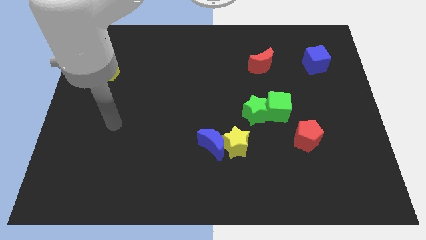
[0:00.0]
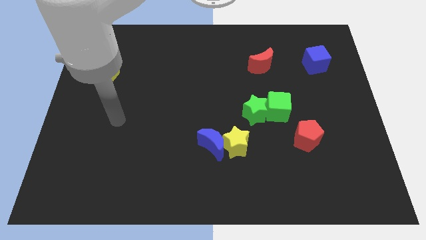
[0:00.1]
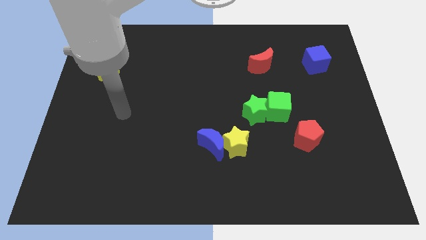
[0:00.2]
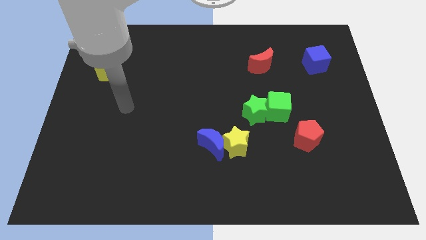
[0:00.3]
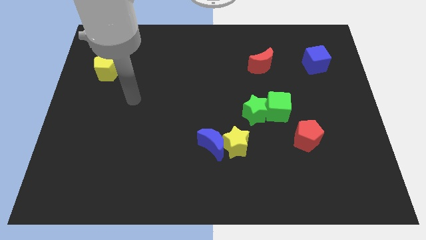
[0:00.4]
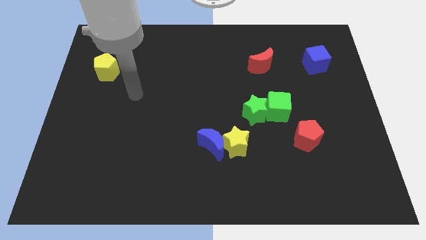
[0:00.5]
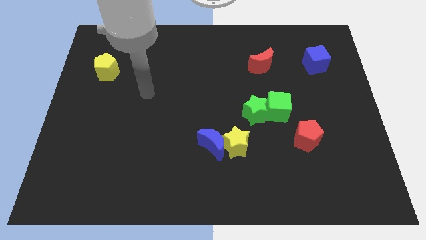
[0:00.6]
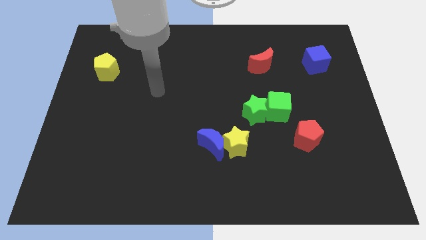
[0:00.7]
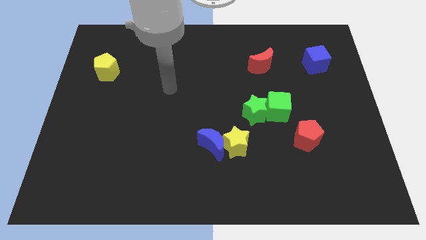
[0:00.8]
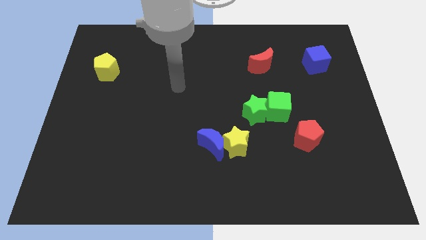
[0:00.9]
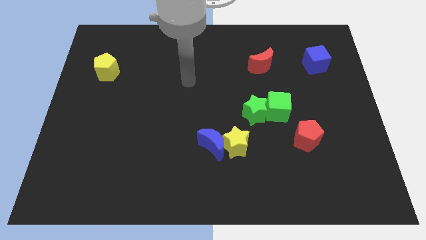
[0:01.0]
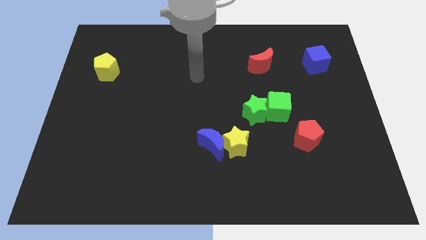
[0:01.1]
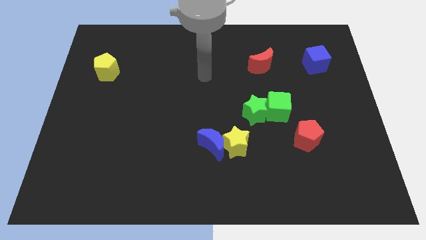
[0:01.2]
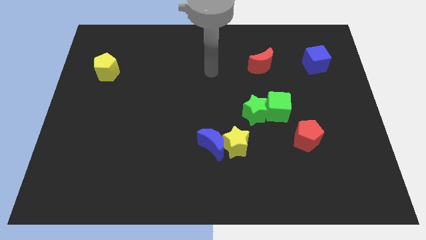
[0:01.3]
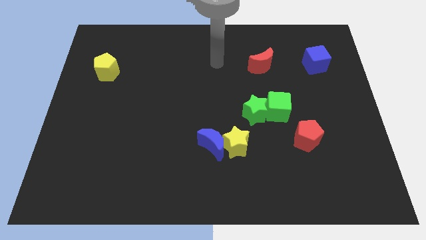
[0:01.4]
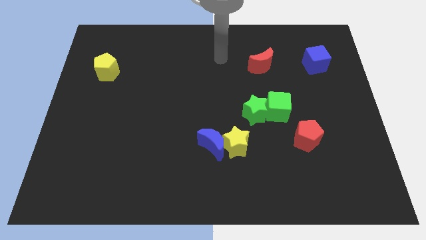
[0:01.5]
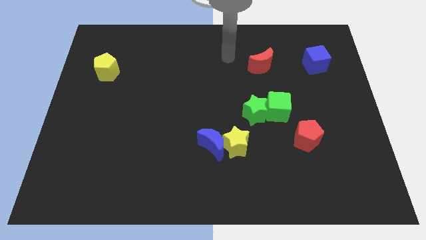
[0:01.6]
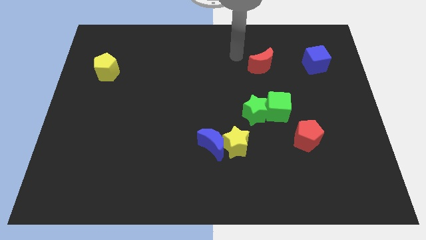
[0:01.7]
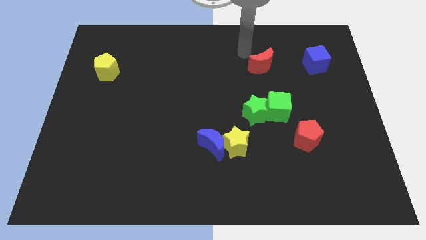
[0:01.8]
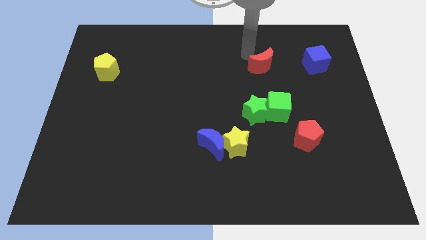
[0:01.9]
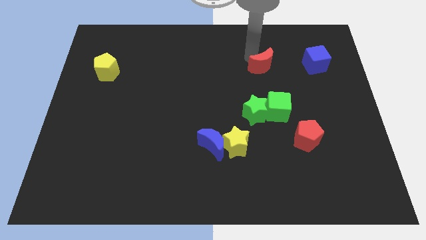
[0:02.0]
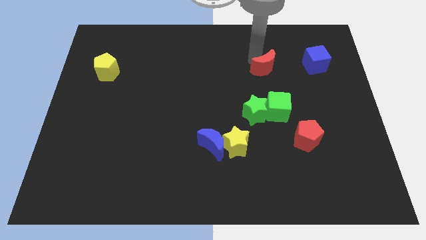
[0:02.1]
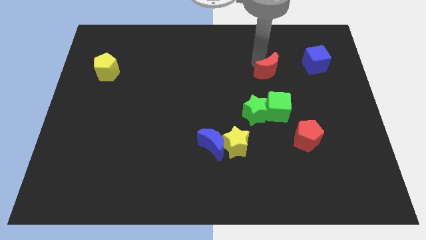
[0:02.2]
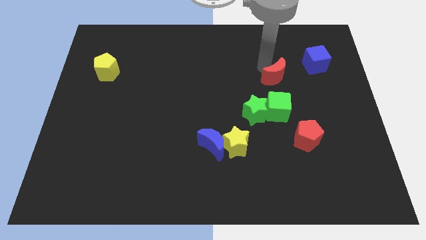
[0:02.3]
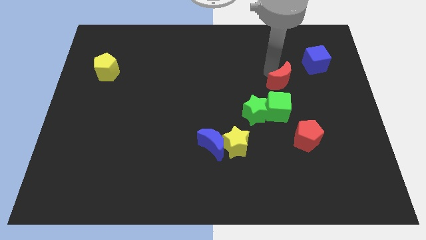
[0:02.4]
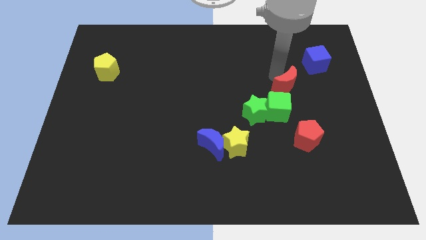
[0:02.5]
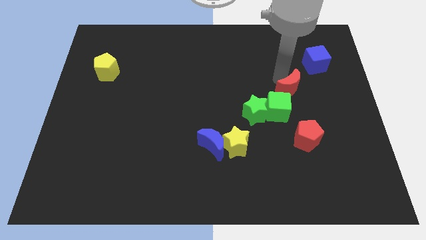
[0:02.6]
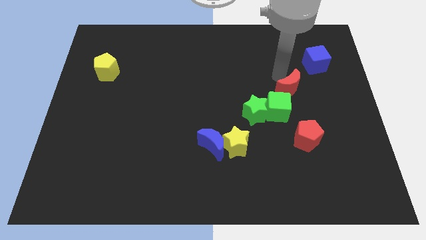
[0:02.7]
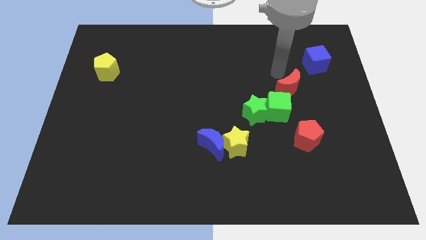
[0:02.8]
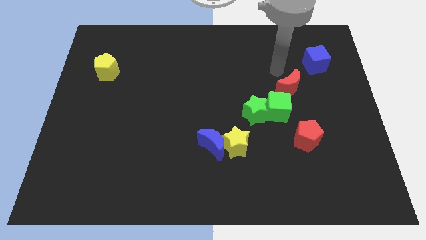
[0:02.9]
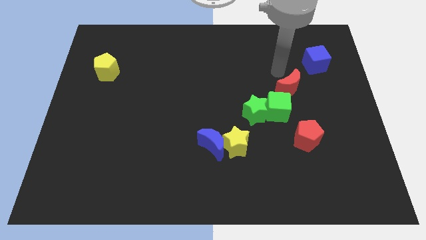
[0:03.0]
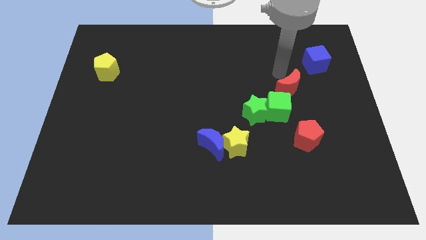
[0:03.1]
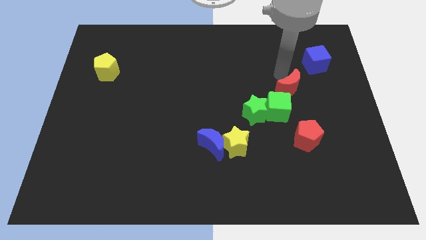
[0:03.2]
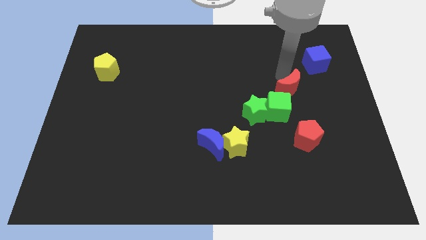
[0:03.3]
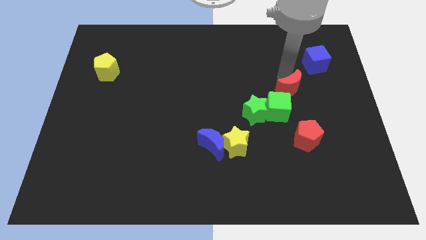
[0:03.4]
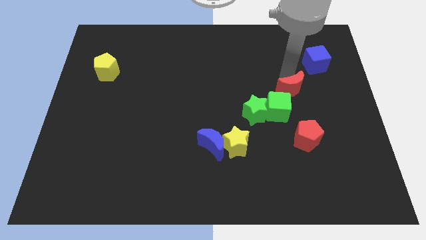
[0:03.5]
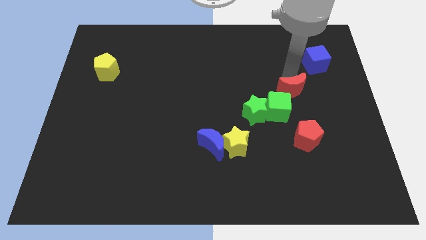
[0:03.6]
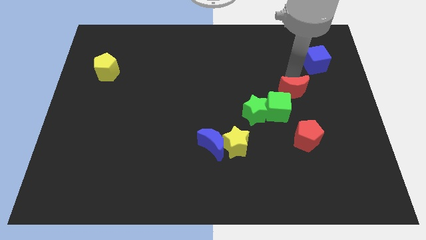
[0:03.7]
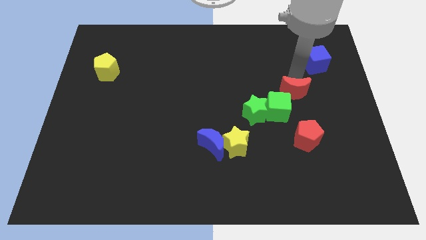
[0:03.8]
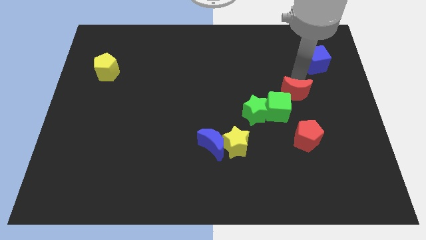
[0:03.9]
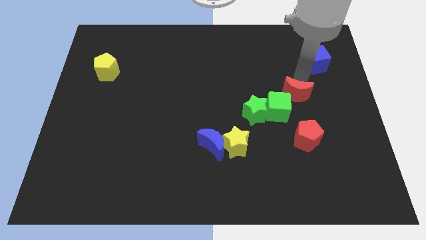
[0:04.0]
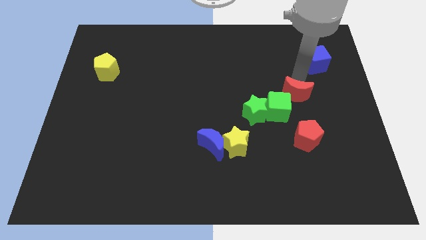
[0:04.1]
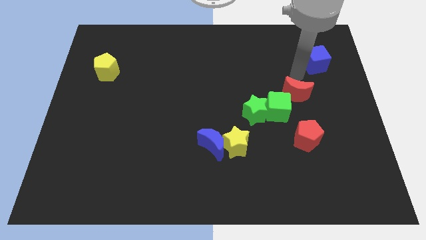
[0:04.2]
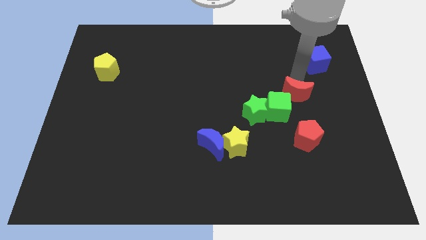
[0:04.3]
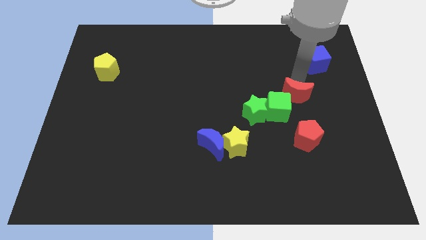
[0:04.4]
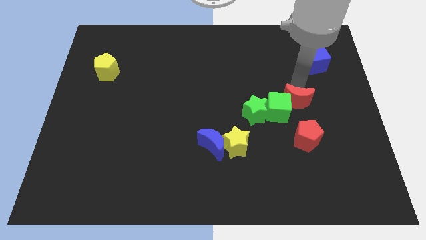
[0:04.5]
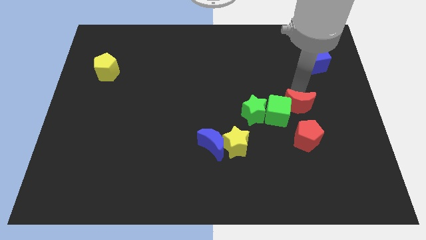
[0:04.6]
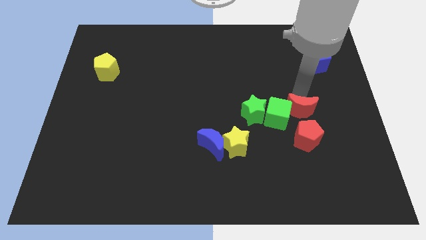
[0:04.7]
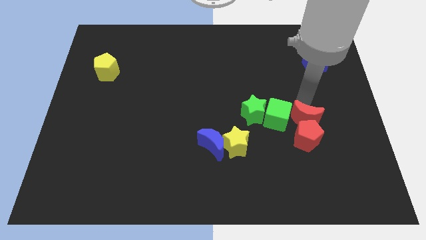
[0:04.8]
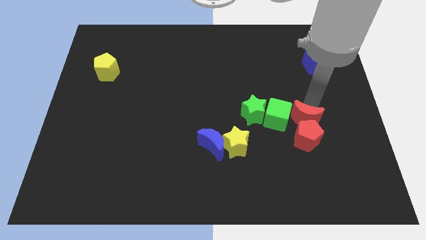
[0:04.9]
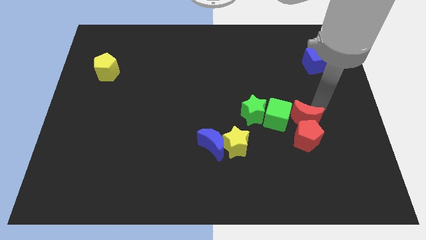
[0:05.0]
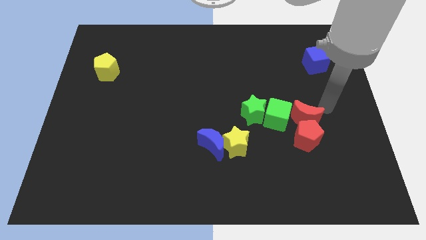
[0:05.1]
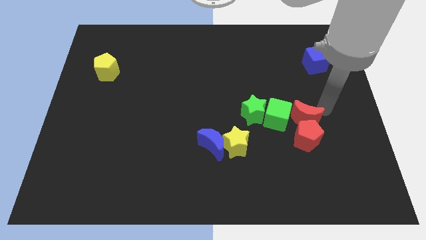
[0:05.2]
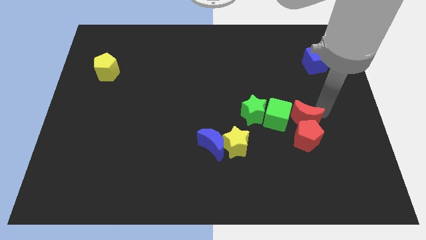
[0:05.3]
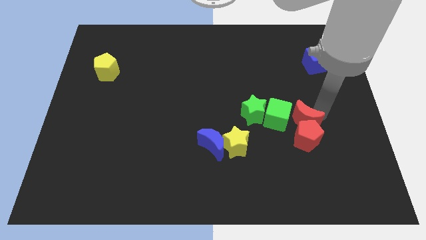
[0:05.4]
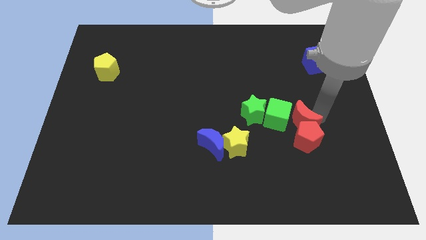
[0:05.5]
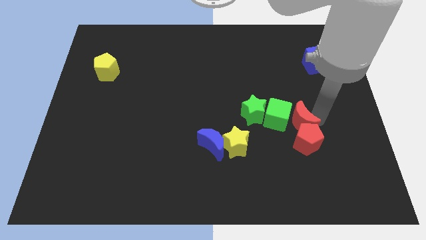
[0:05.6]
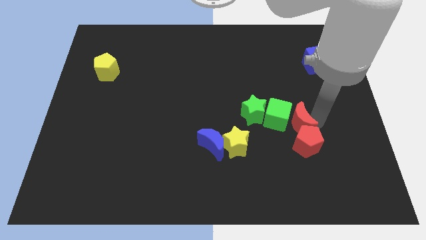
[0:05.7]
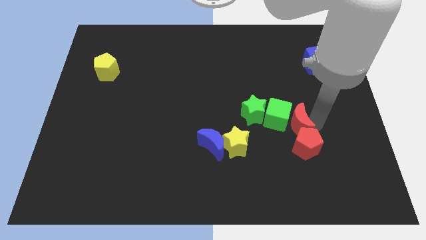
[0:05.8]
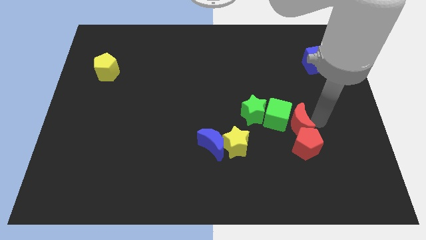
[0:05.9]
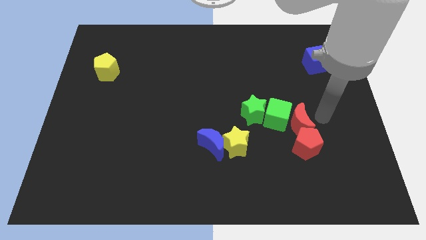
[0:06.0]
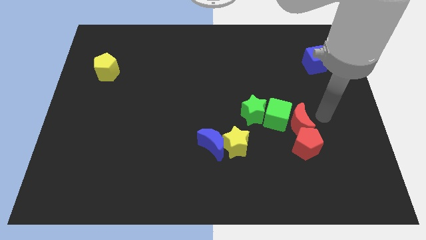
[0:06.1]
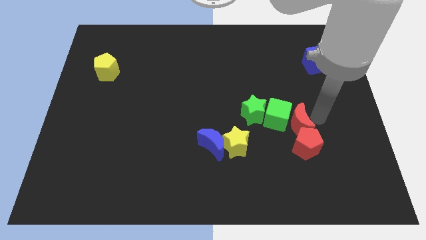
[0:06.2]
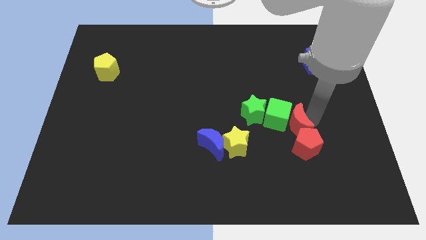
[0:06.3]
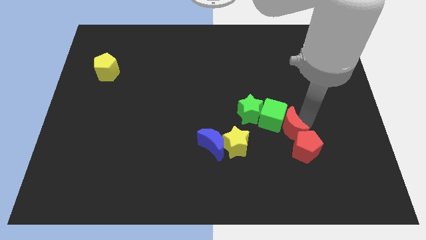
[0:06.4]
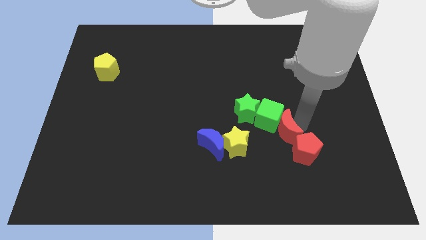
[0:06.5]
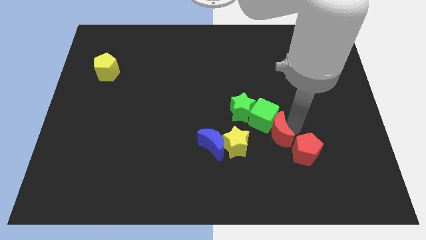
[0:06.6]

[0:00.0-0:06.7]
slide the red moon to the right of the blue moon

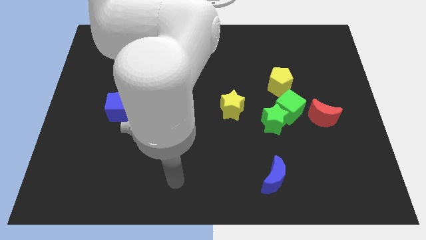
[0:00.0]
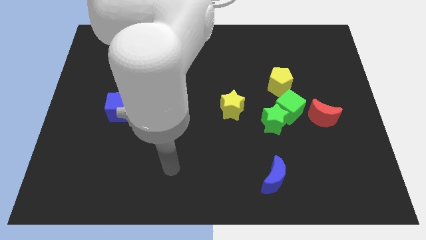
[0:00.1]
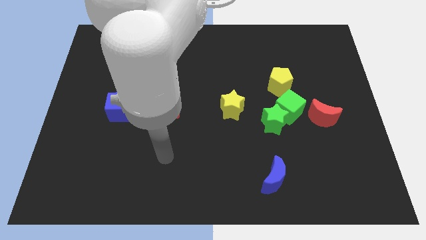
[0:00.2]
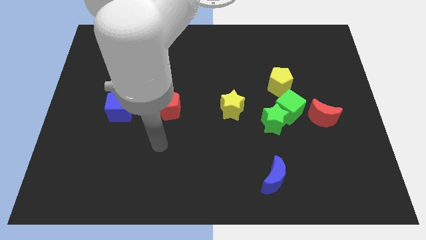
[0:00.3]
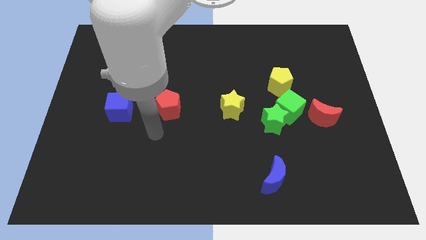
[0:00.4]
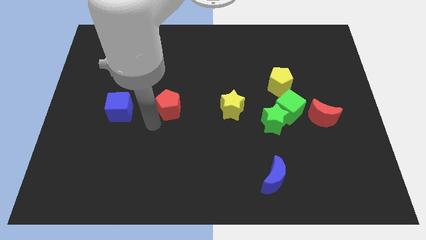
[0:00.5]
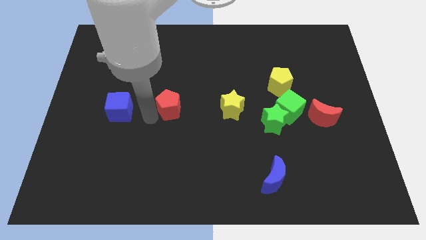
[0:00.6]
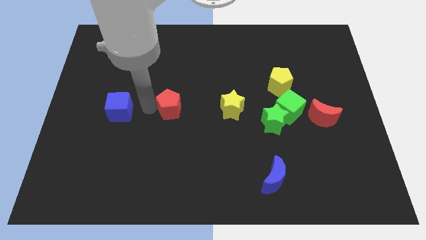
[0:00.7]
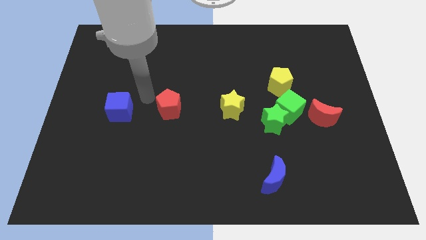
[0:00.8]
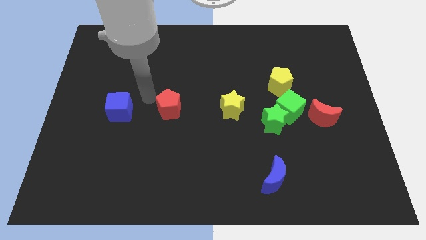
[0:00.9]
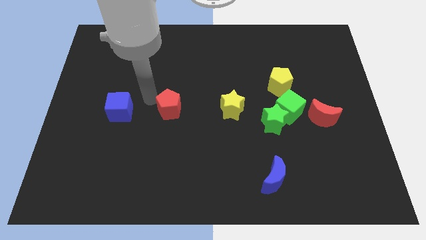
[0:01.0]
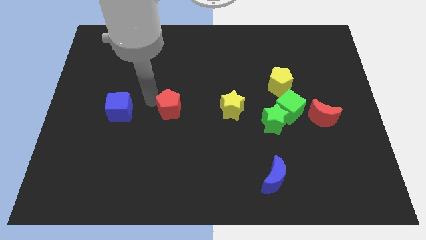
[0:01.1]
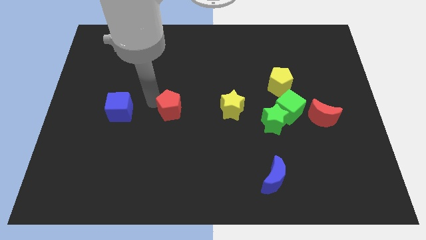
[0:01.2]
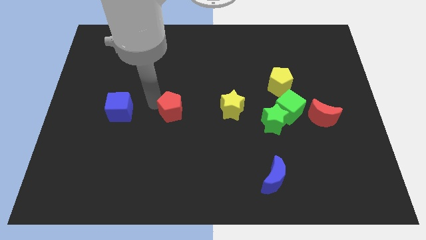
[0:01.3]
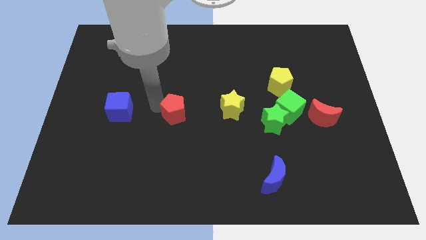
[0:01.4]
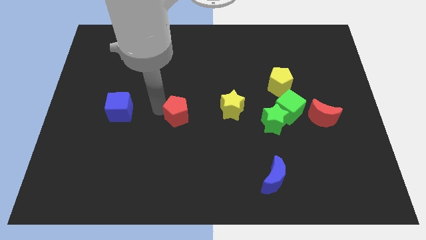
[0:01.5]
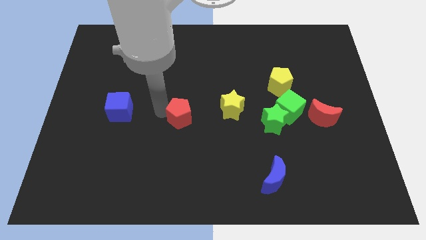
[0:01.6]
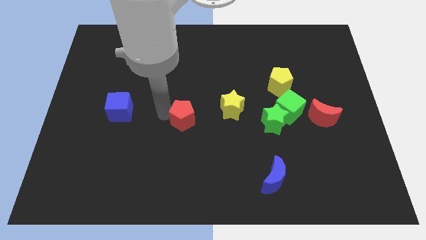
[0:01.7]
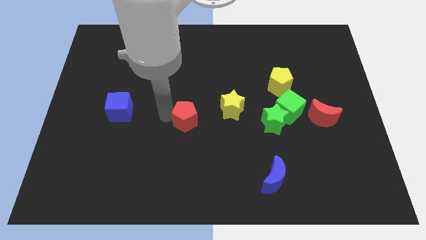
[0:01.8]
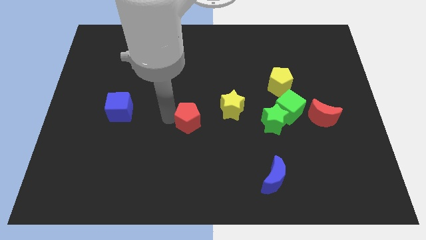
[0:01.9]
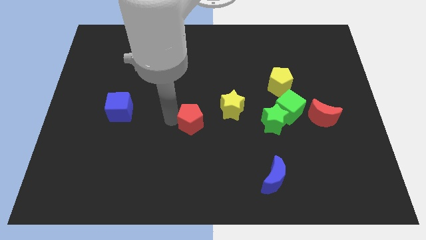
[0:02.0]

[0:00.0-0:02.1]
move the red pentagon diagonally down and to the left of the yellow star
